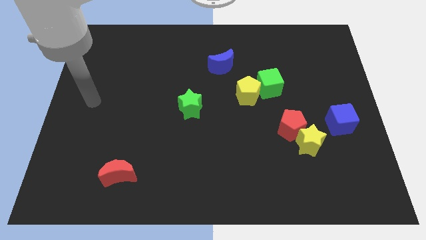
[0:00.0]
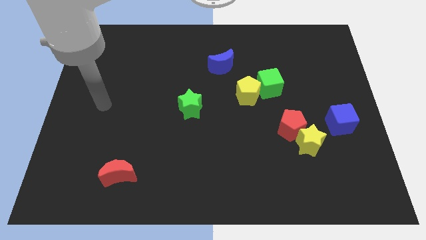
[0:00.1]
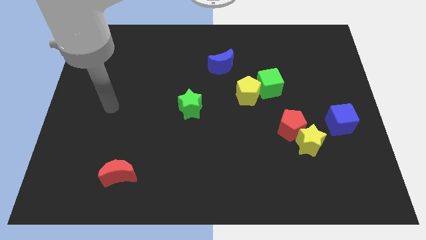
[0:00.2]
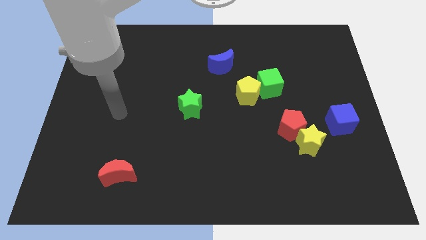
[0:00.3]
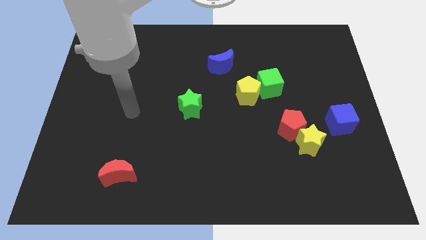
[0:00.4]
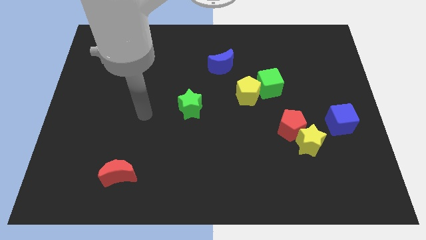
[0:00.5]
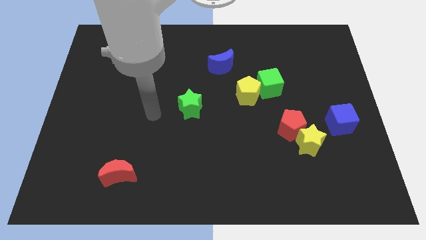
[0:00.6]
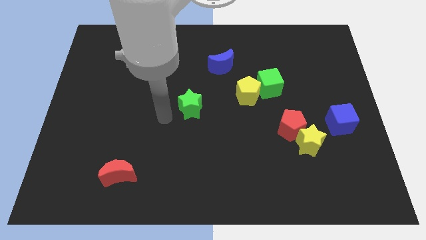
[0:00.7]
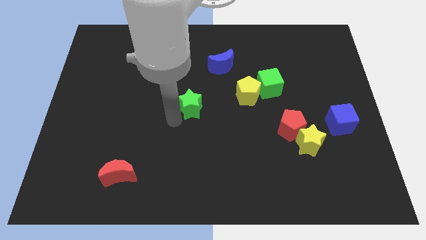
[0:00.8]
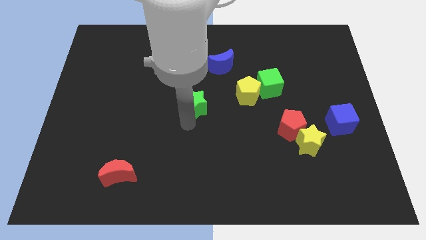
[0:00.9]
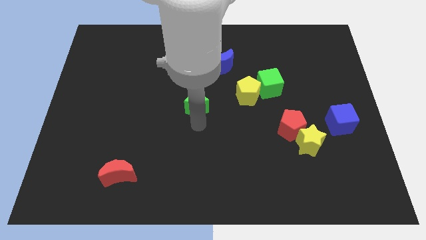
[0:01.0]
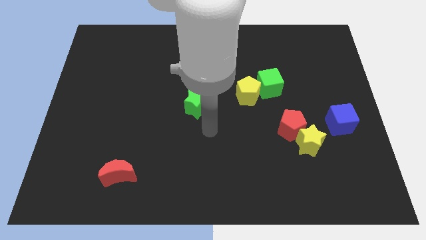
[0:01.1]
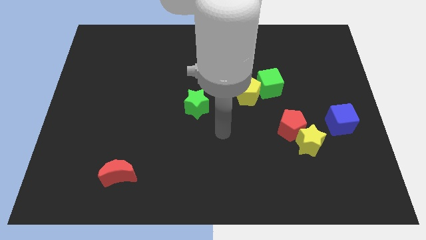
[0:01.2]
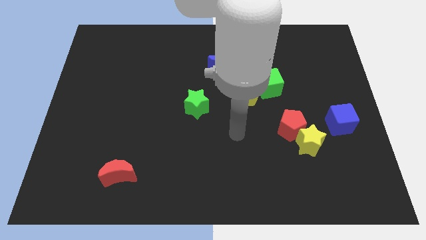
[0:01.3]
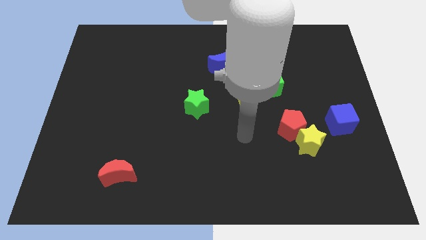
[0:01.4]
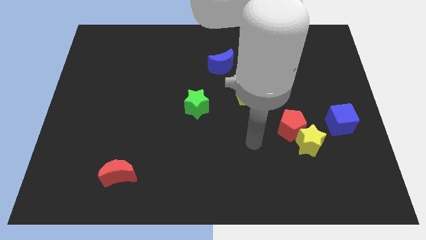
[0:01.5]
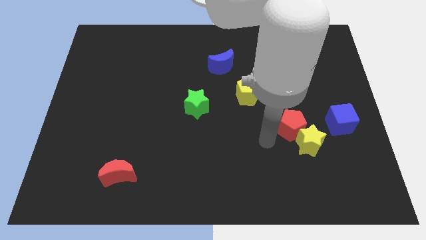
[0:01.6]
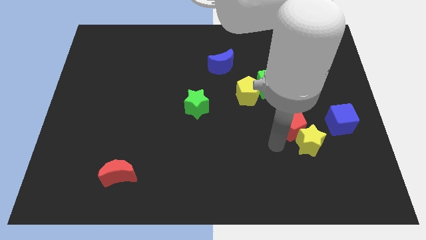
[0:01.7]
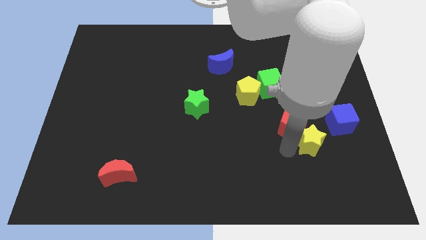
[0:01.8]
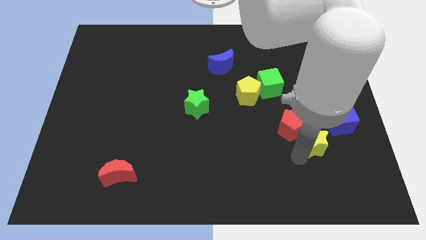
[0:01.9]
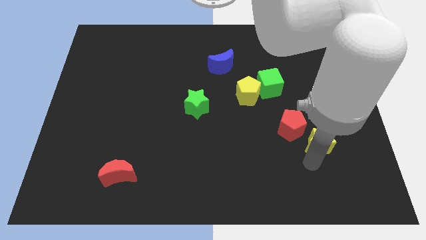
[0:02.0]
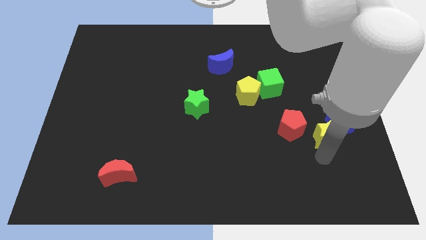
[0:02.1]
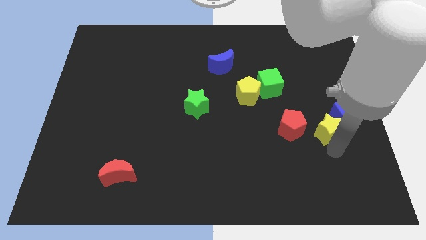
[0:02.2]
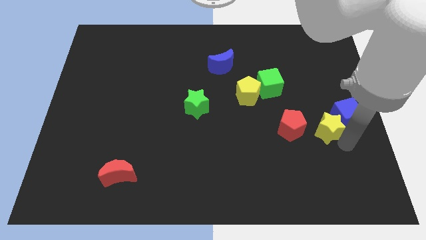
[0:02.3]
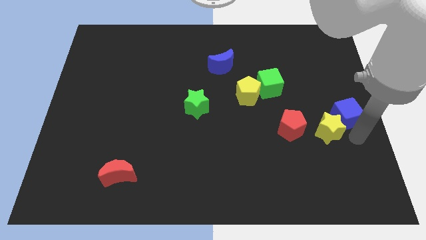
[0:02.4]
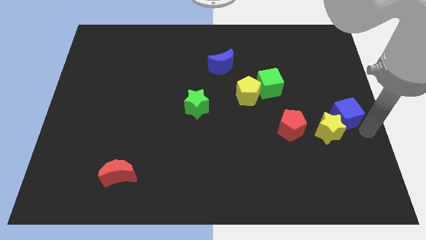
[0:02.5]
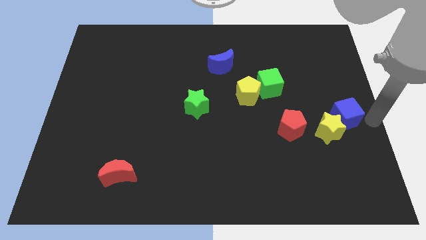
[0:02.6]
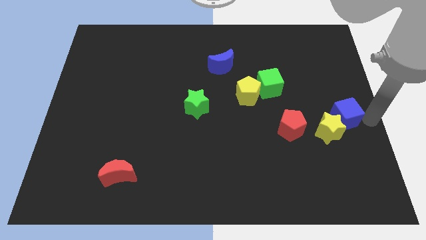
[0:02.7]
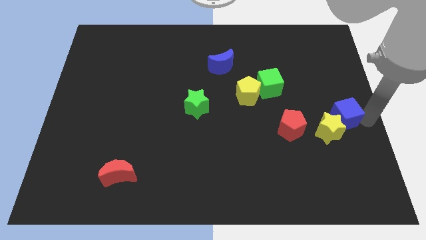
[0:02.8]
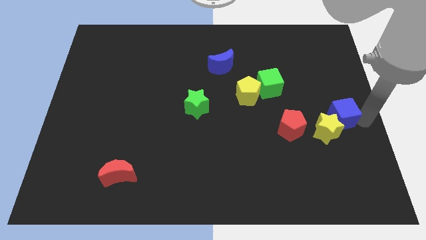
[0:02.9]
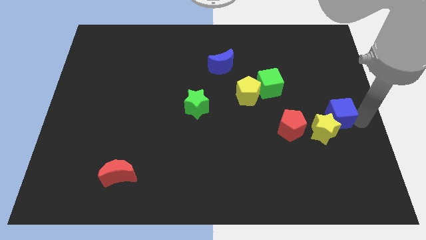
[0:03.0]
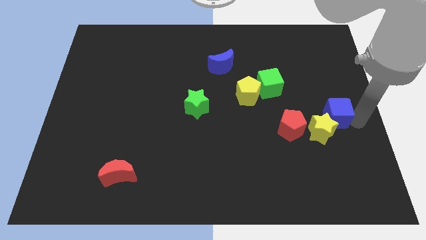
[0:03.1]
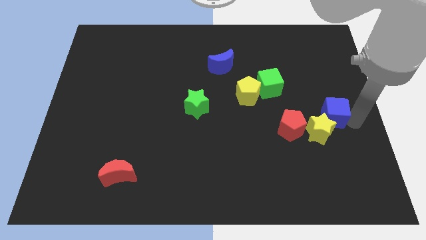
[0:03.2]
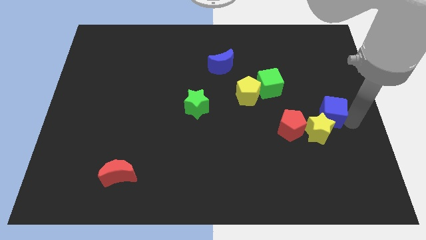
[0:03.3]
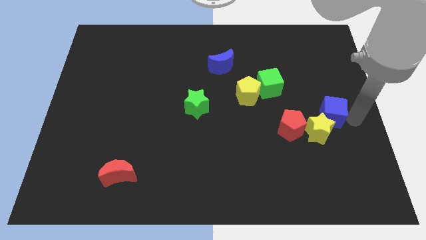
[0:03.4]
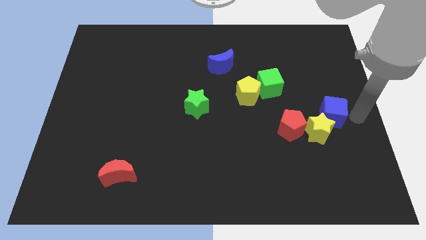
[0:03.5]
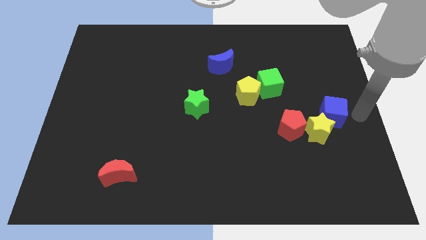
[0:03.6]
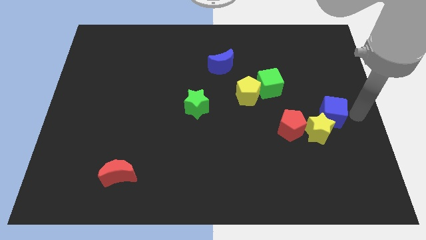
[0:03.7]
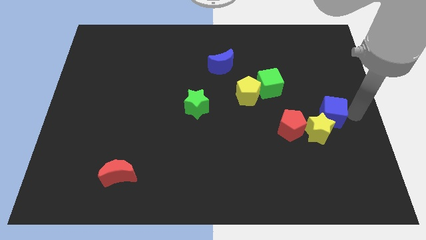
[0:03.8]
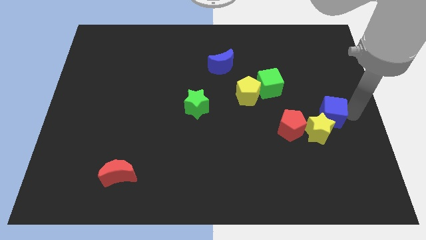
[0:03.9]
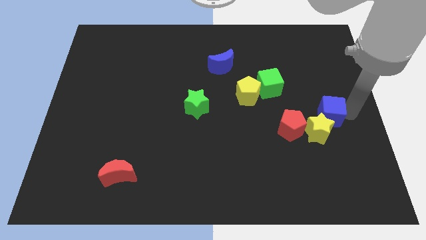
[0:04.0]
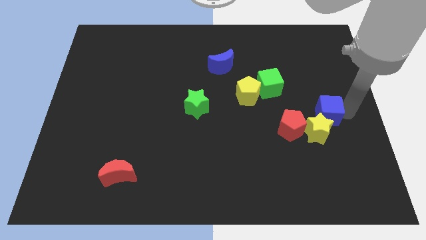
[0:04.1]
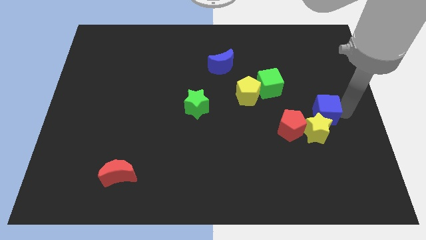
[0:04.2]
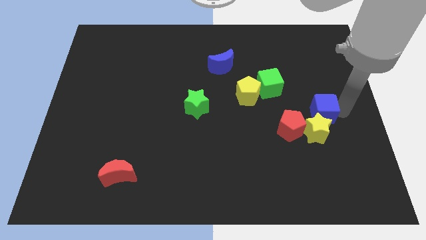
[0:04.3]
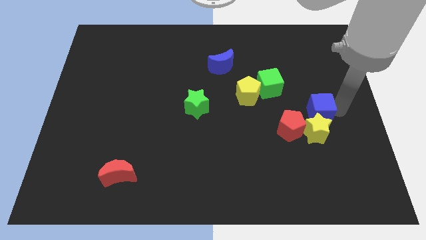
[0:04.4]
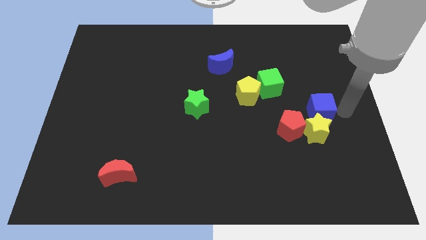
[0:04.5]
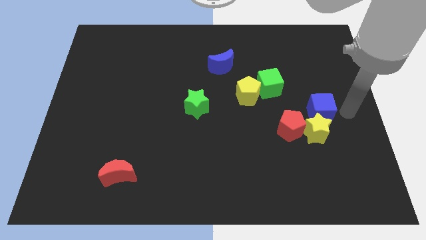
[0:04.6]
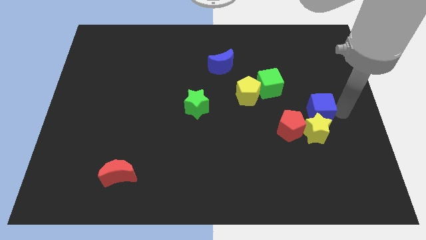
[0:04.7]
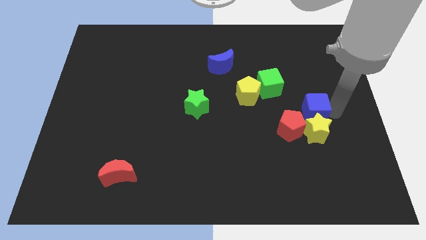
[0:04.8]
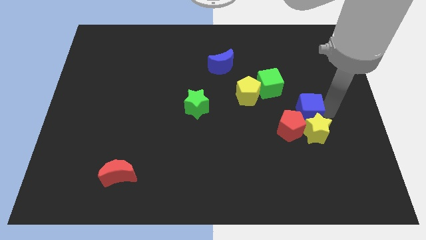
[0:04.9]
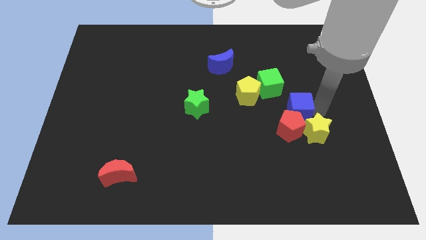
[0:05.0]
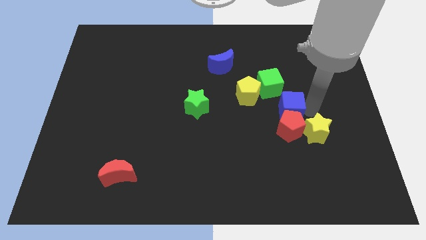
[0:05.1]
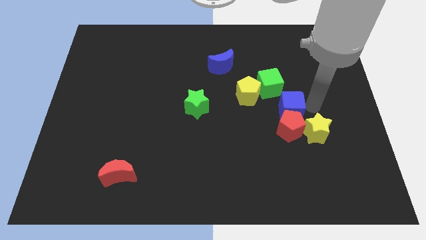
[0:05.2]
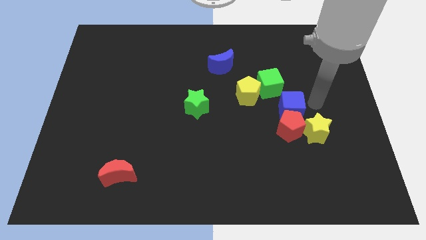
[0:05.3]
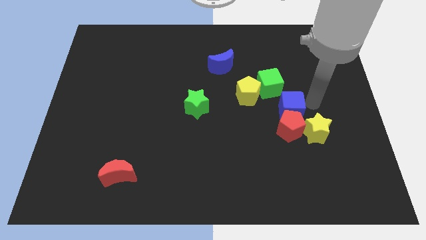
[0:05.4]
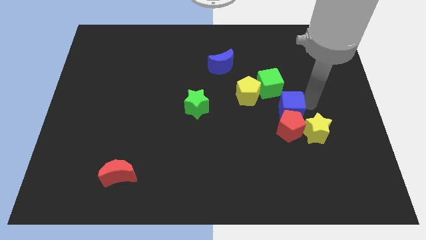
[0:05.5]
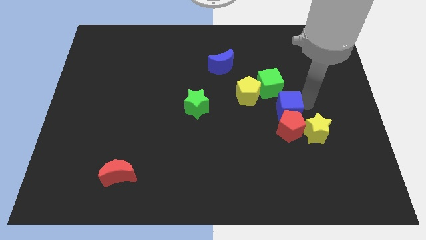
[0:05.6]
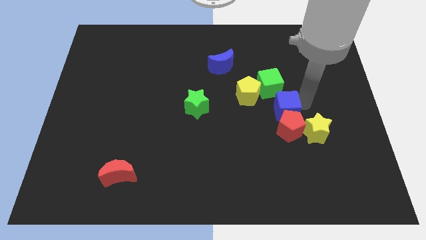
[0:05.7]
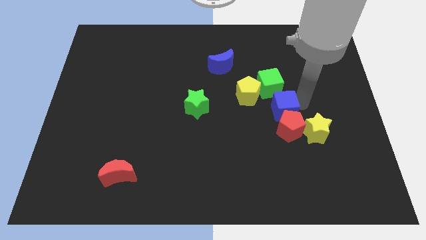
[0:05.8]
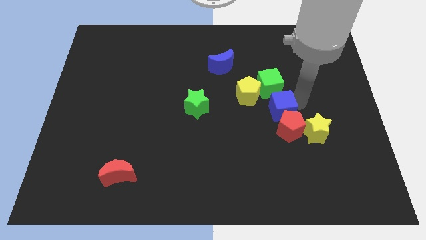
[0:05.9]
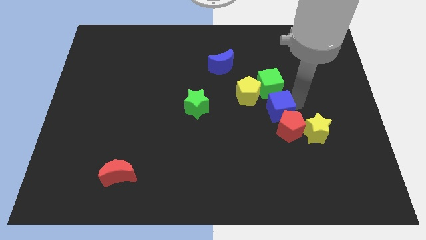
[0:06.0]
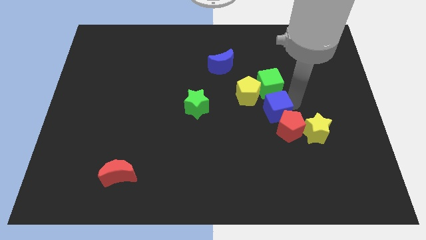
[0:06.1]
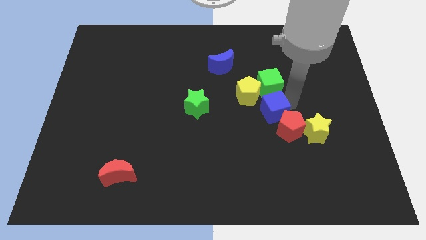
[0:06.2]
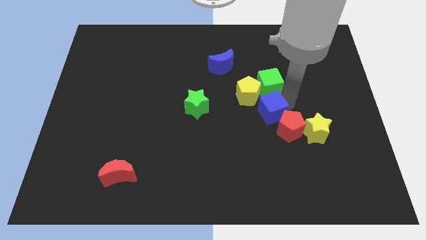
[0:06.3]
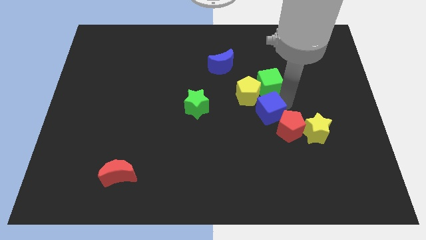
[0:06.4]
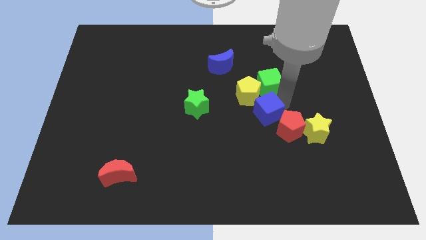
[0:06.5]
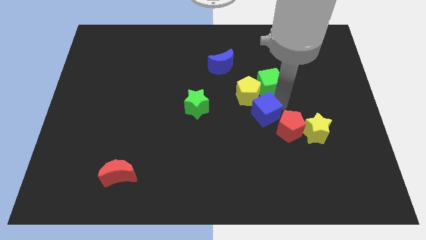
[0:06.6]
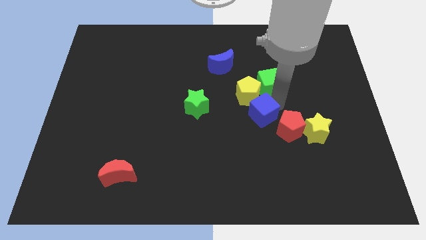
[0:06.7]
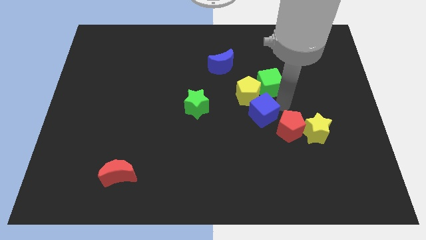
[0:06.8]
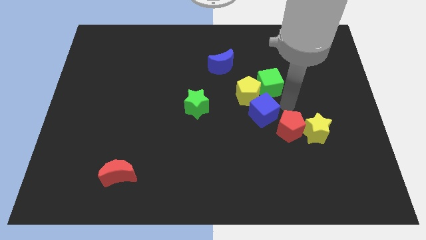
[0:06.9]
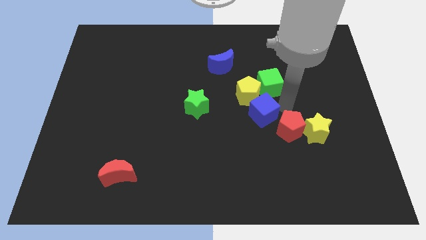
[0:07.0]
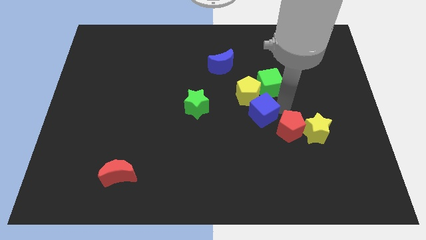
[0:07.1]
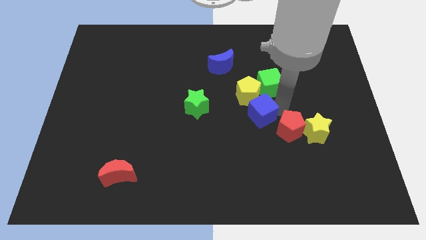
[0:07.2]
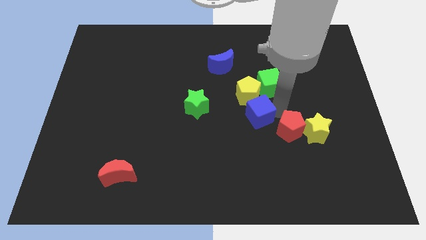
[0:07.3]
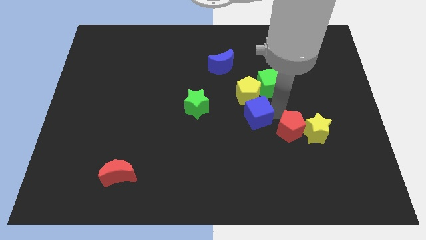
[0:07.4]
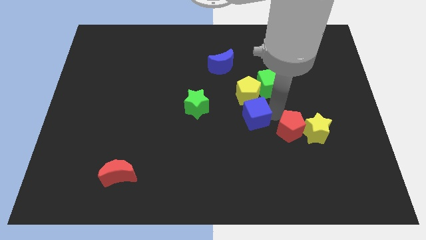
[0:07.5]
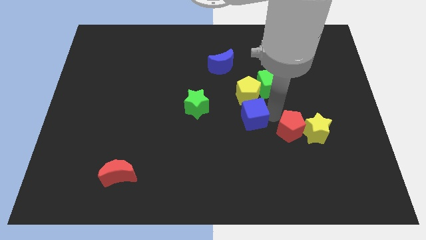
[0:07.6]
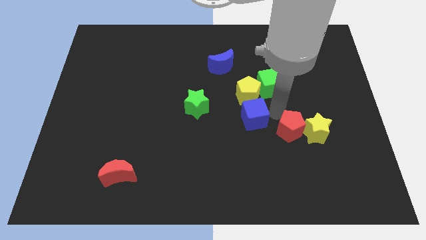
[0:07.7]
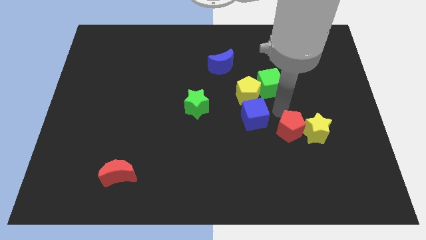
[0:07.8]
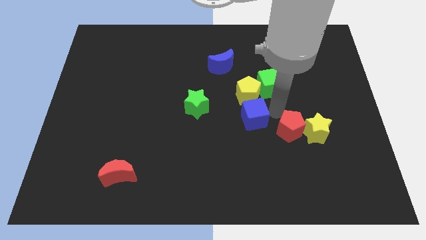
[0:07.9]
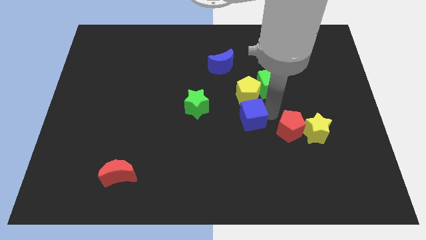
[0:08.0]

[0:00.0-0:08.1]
slide the blue cube left

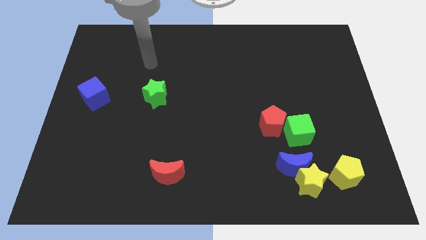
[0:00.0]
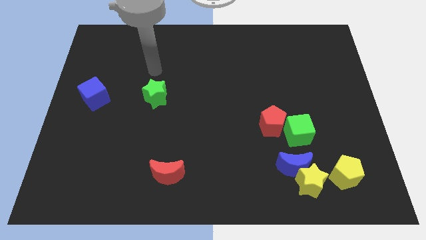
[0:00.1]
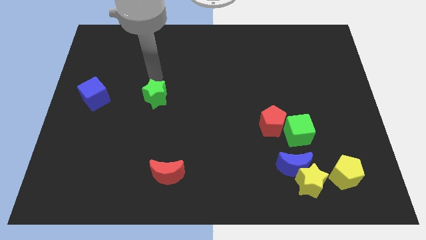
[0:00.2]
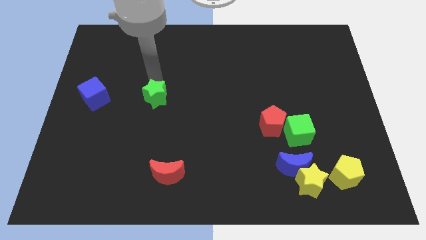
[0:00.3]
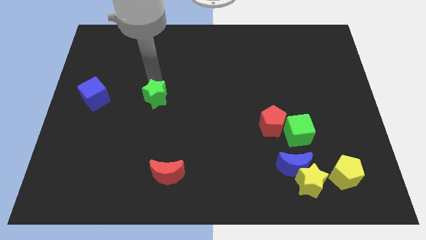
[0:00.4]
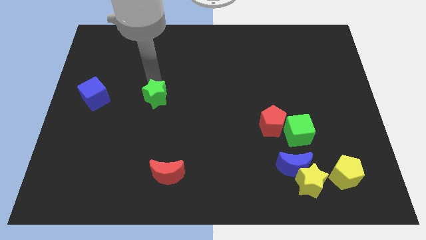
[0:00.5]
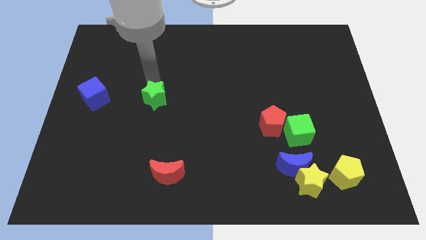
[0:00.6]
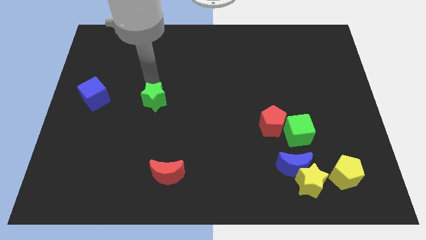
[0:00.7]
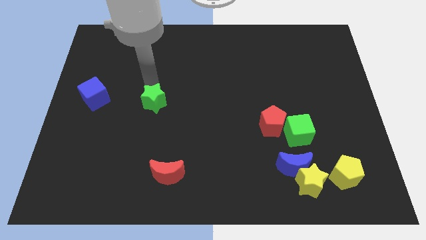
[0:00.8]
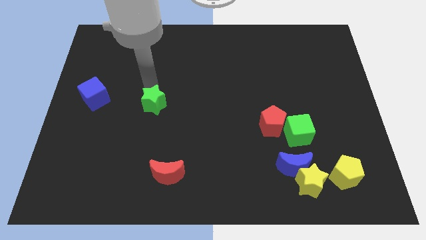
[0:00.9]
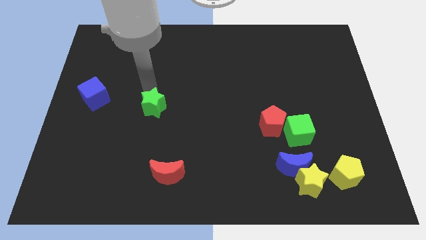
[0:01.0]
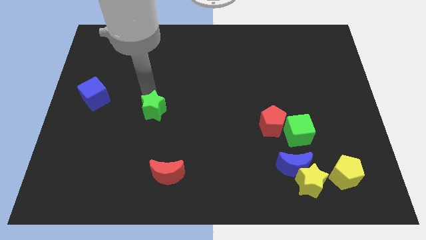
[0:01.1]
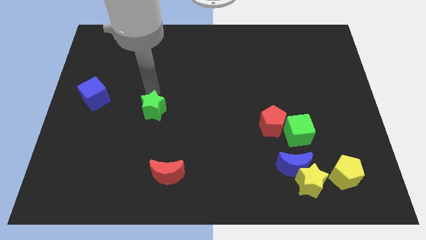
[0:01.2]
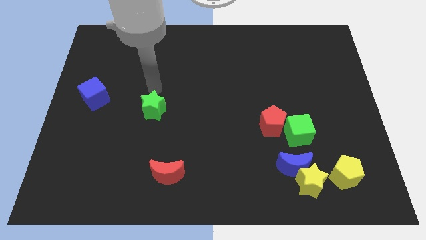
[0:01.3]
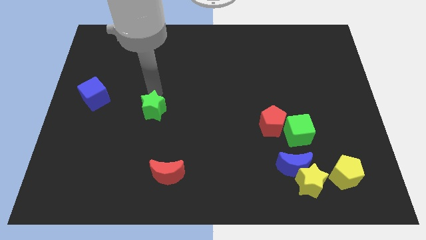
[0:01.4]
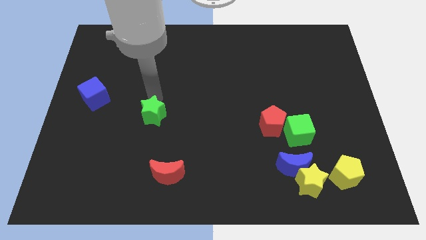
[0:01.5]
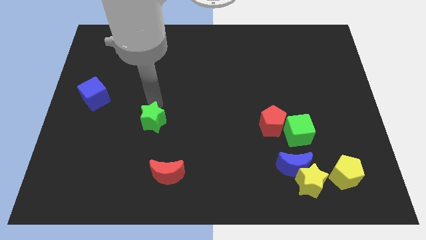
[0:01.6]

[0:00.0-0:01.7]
push the green star downwards slightly
